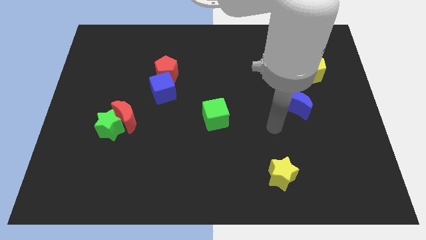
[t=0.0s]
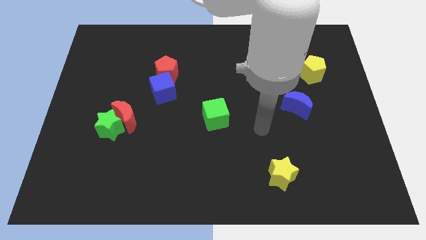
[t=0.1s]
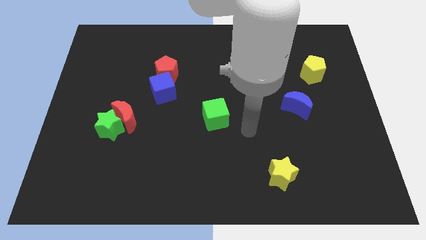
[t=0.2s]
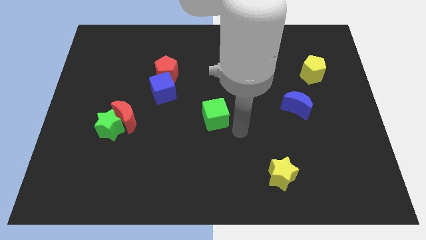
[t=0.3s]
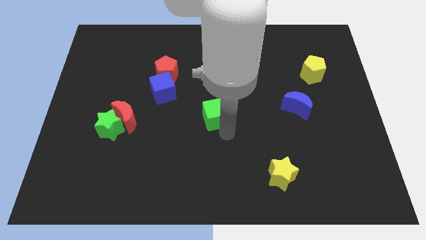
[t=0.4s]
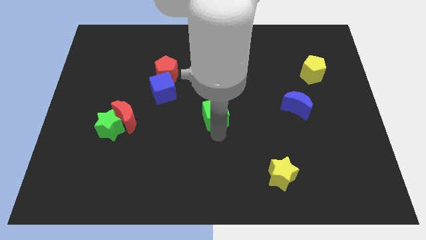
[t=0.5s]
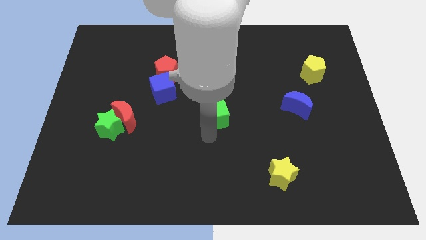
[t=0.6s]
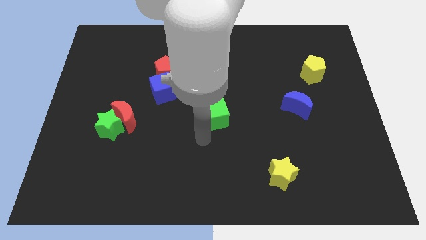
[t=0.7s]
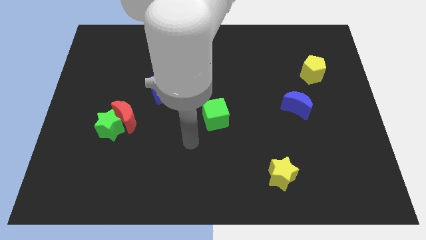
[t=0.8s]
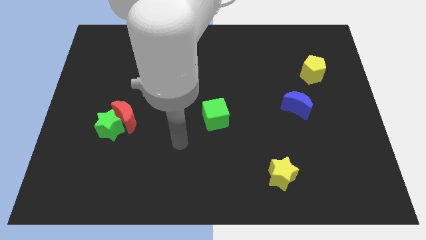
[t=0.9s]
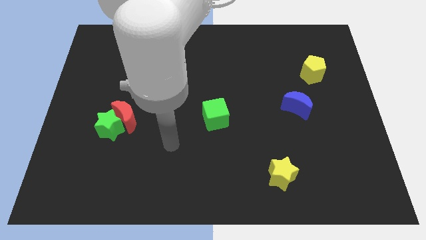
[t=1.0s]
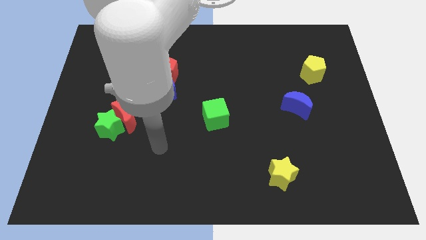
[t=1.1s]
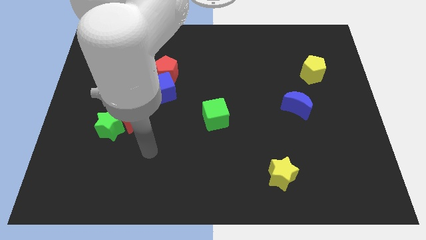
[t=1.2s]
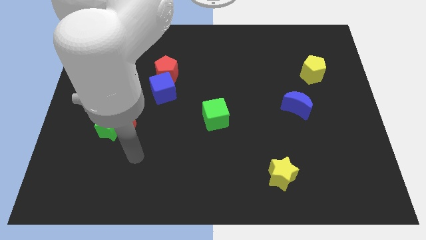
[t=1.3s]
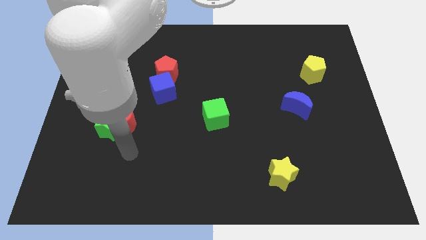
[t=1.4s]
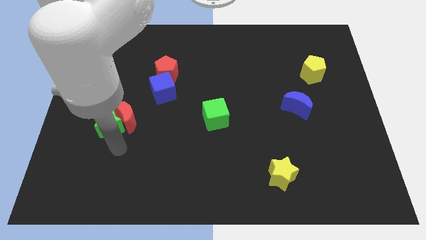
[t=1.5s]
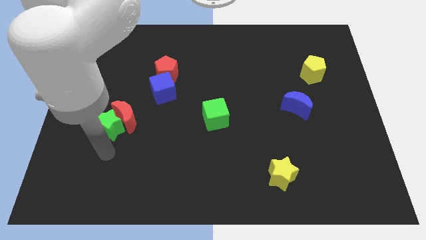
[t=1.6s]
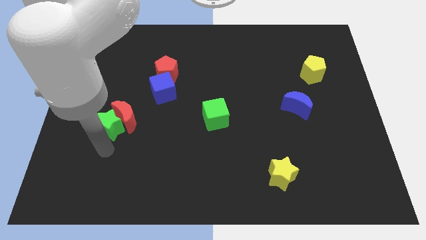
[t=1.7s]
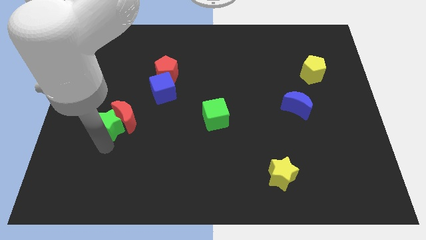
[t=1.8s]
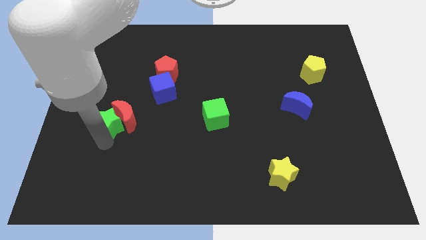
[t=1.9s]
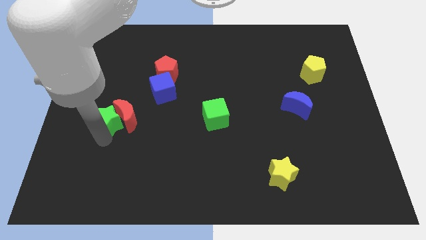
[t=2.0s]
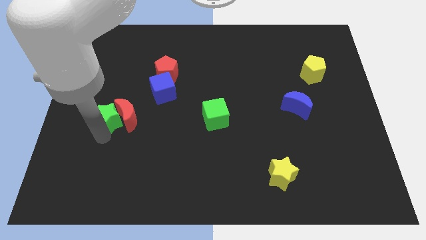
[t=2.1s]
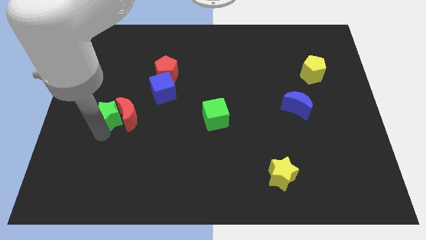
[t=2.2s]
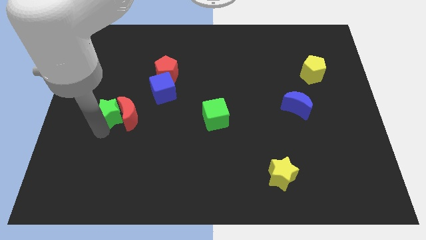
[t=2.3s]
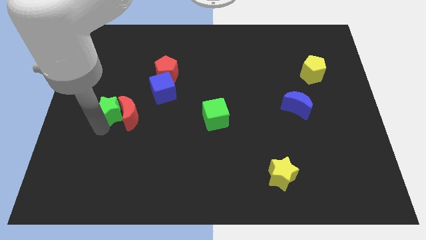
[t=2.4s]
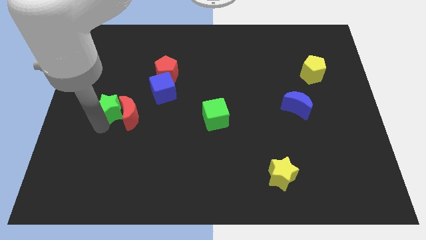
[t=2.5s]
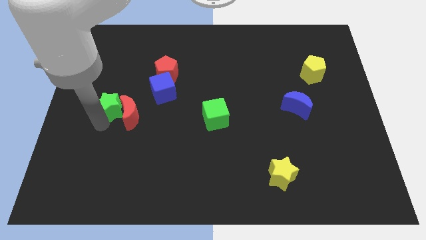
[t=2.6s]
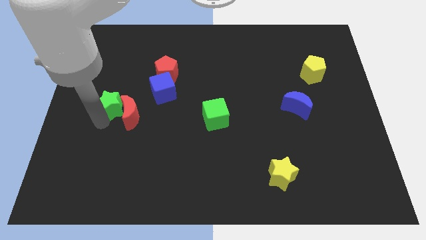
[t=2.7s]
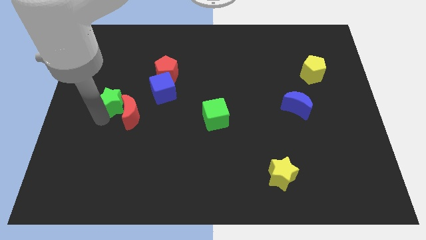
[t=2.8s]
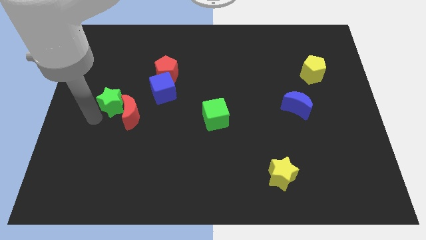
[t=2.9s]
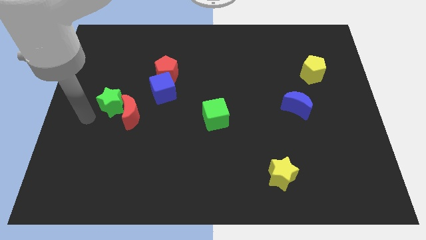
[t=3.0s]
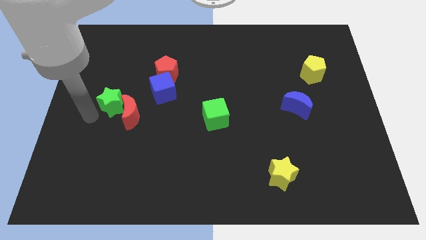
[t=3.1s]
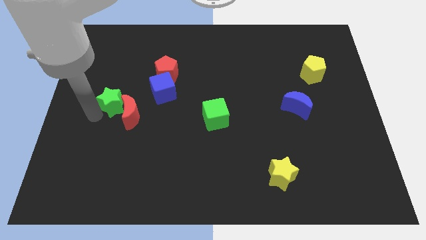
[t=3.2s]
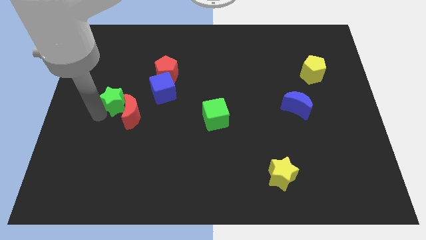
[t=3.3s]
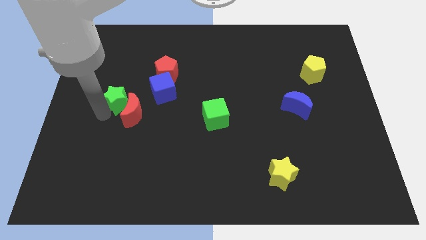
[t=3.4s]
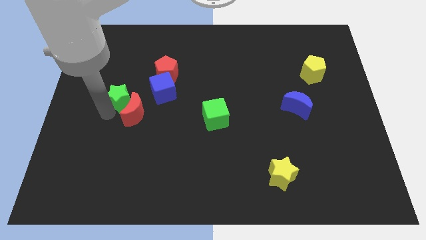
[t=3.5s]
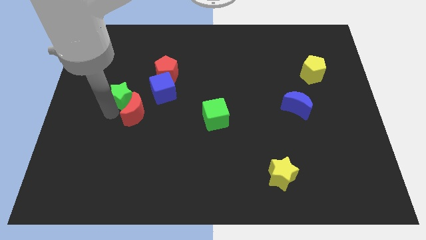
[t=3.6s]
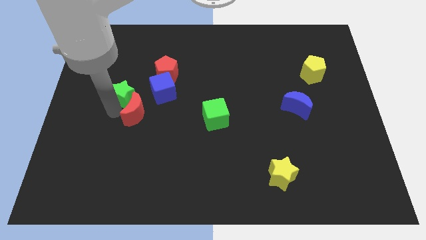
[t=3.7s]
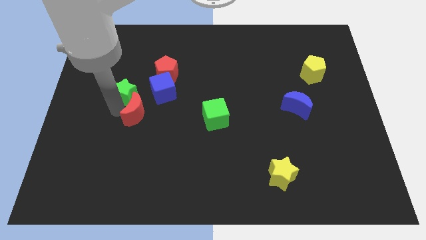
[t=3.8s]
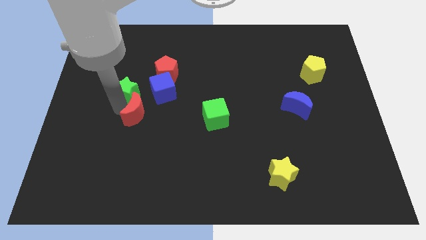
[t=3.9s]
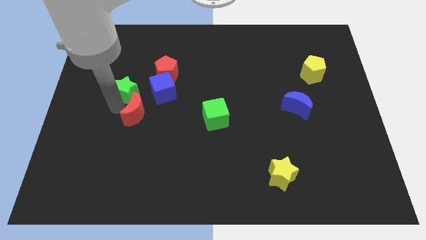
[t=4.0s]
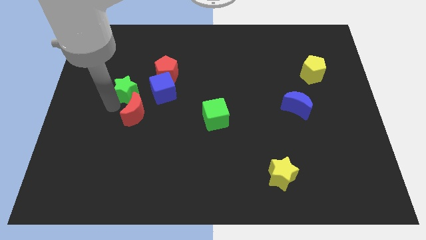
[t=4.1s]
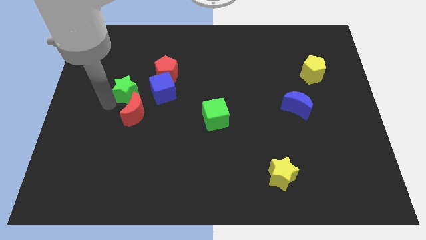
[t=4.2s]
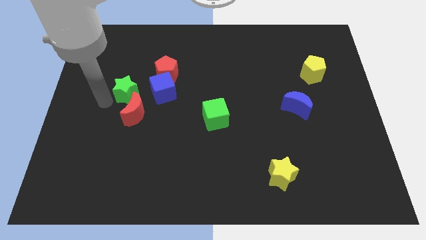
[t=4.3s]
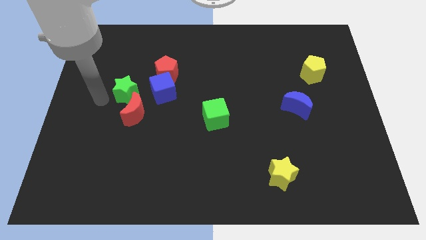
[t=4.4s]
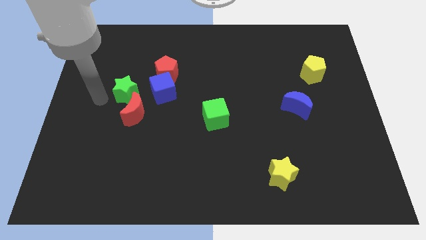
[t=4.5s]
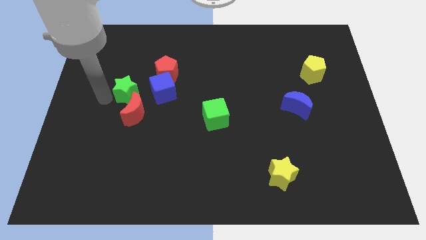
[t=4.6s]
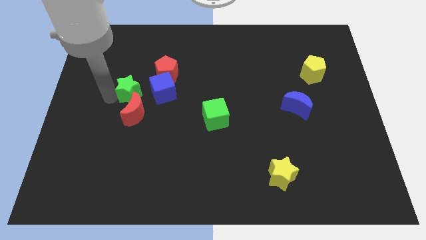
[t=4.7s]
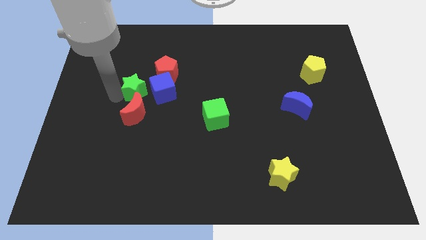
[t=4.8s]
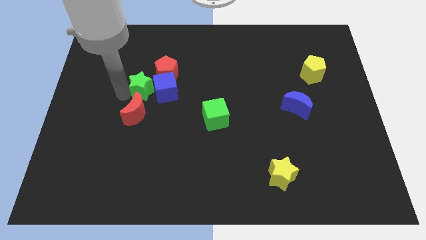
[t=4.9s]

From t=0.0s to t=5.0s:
put the green star towards the blue cube

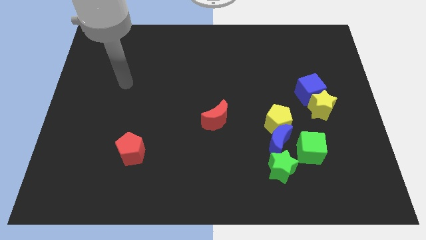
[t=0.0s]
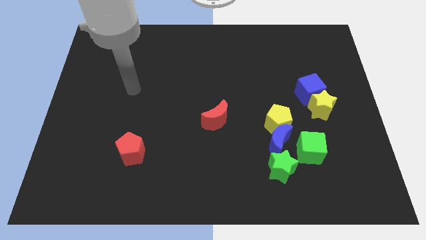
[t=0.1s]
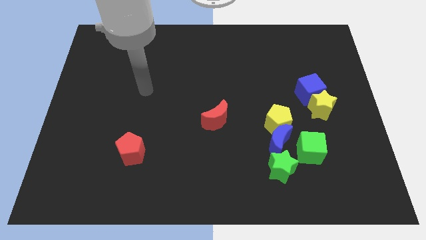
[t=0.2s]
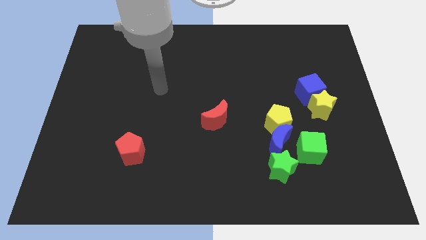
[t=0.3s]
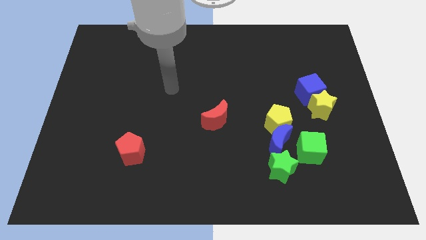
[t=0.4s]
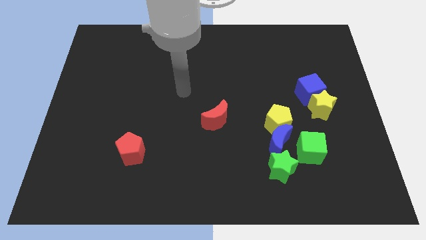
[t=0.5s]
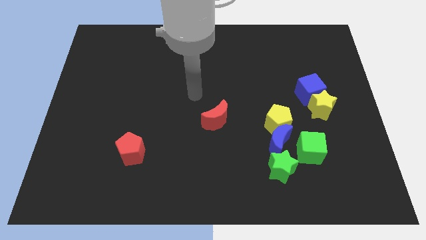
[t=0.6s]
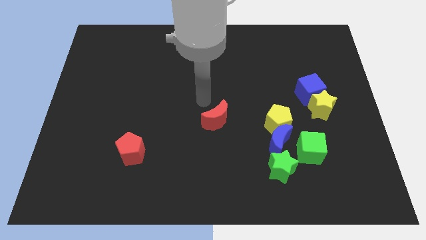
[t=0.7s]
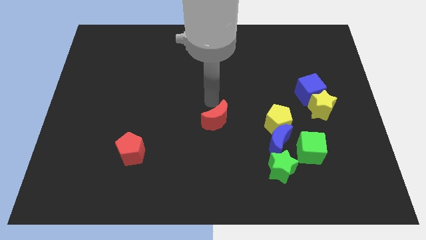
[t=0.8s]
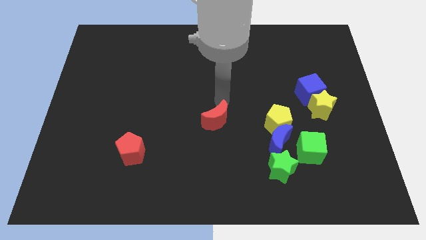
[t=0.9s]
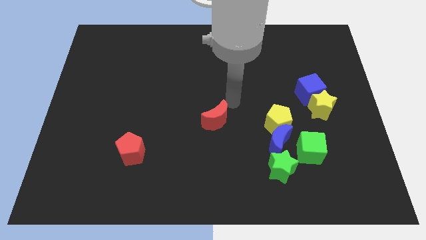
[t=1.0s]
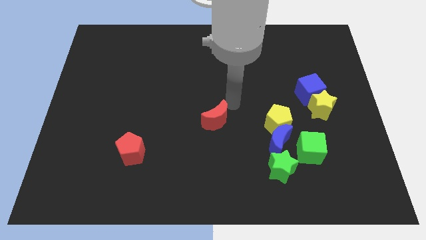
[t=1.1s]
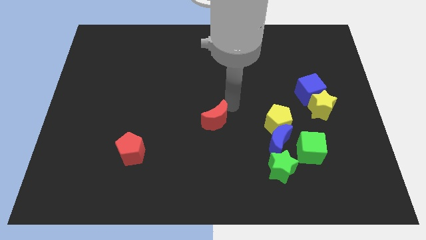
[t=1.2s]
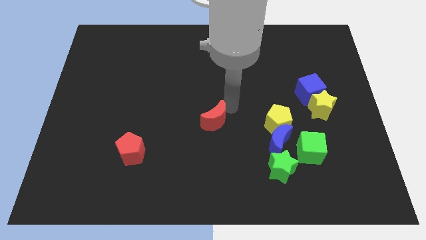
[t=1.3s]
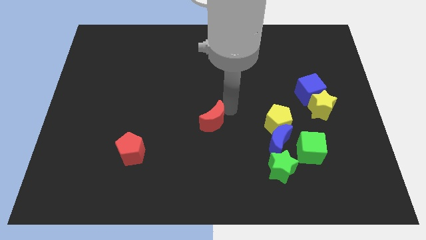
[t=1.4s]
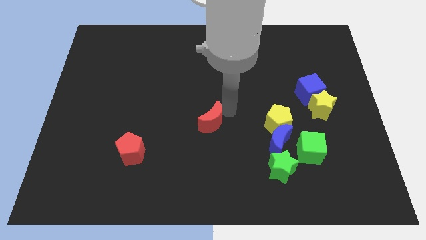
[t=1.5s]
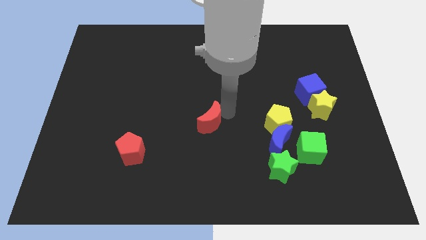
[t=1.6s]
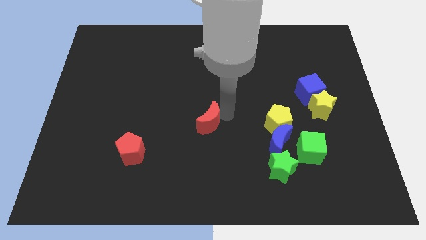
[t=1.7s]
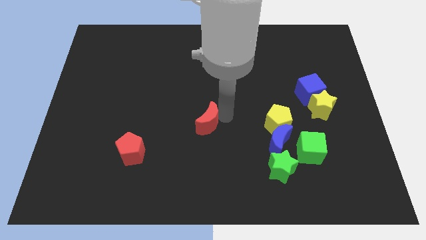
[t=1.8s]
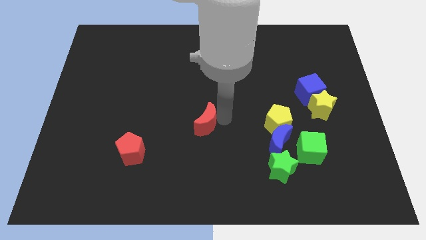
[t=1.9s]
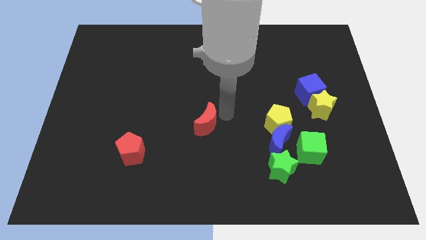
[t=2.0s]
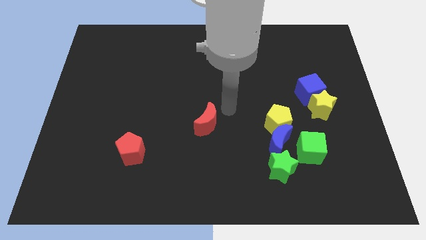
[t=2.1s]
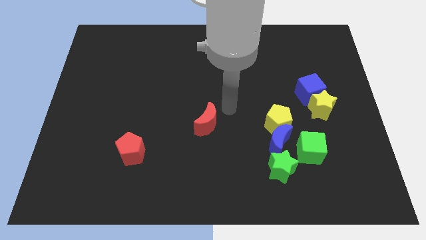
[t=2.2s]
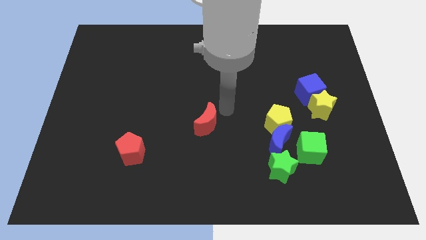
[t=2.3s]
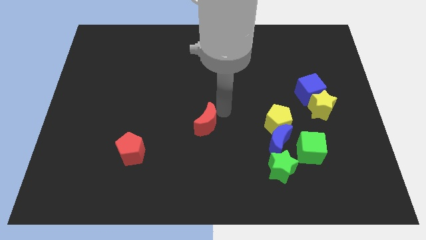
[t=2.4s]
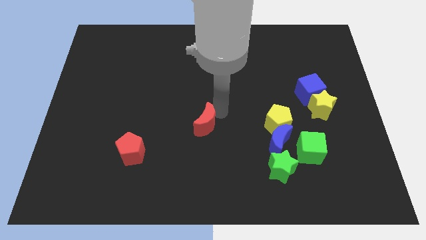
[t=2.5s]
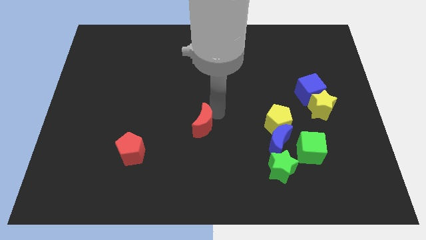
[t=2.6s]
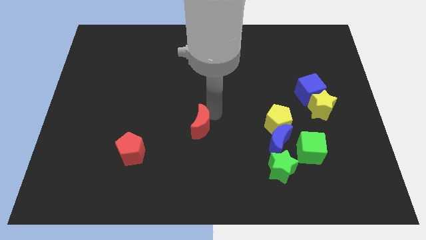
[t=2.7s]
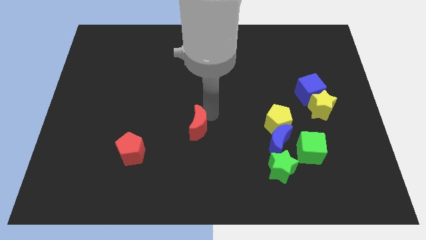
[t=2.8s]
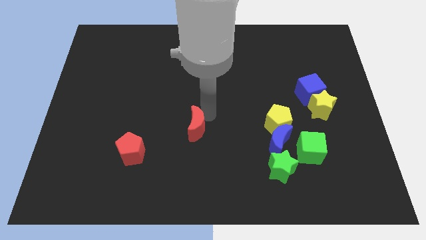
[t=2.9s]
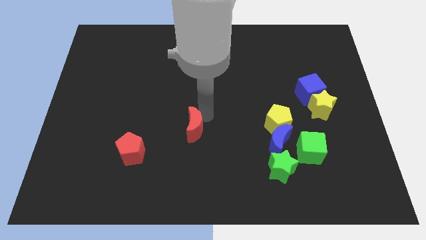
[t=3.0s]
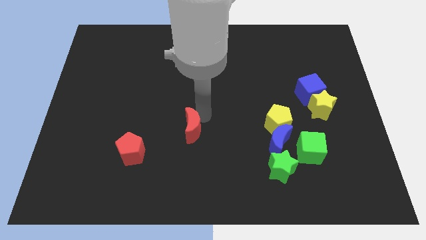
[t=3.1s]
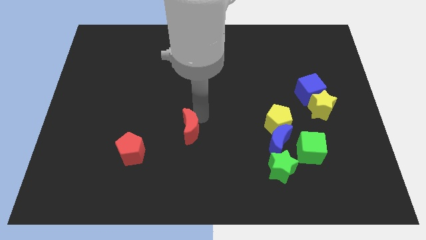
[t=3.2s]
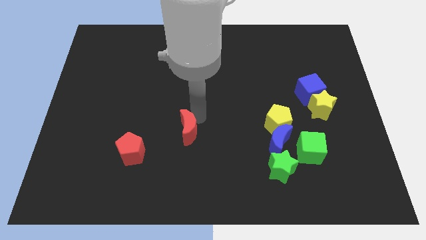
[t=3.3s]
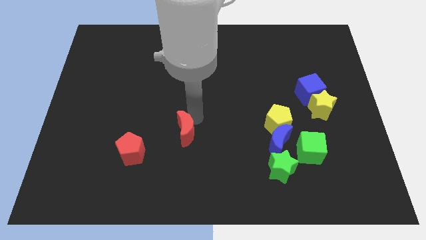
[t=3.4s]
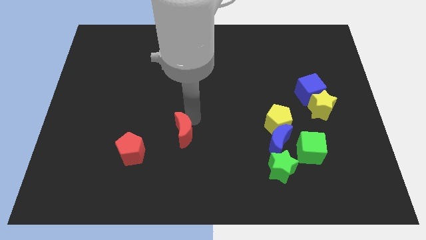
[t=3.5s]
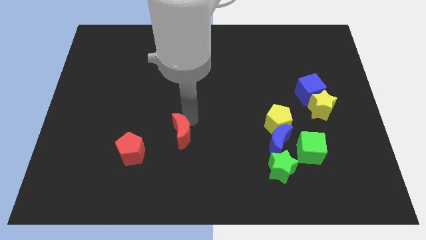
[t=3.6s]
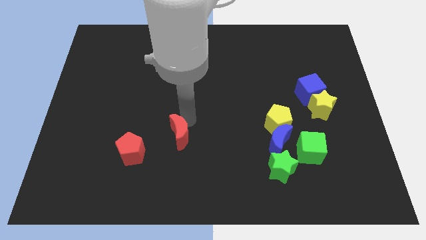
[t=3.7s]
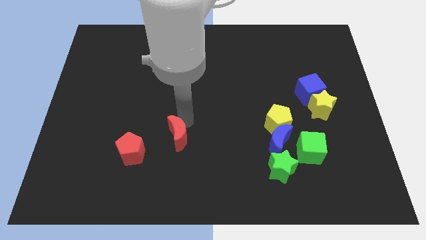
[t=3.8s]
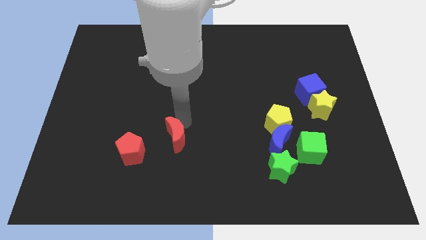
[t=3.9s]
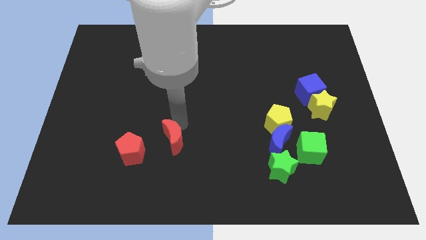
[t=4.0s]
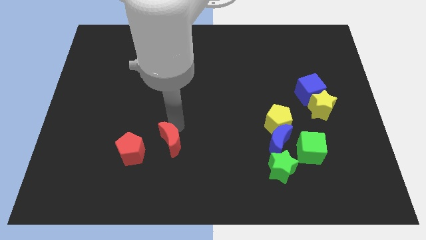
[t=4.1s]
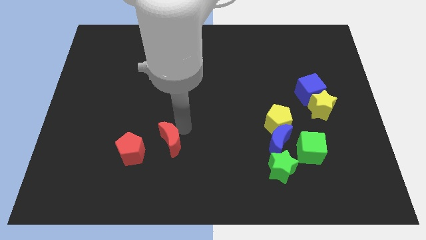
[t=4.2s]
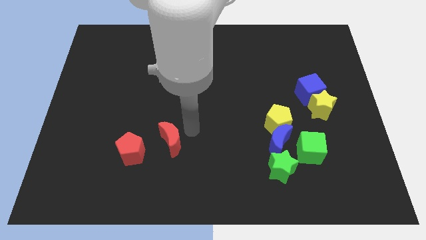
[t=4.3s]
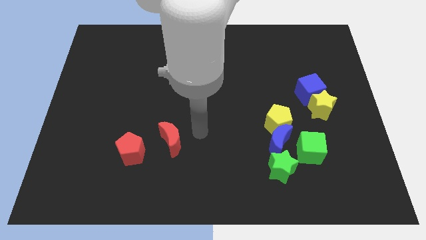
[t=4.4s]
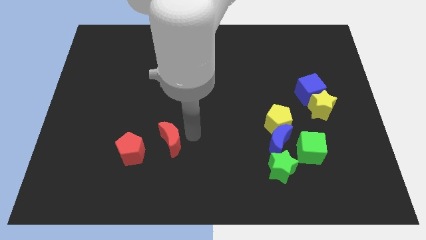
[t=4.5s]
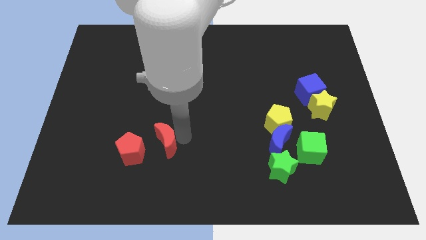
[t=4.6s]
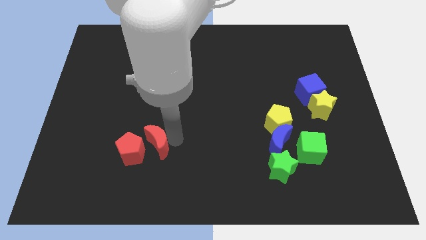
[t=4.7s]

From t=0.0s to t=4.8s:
slide the red moon towards the red pentagon
